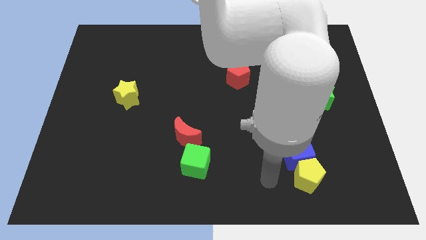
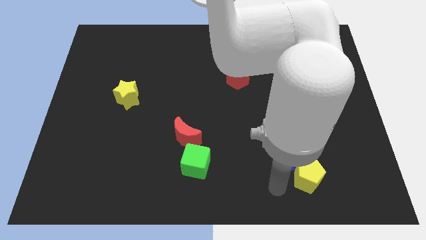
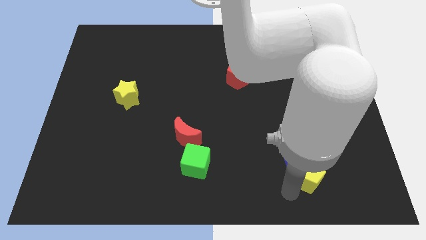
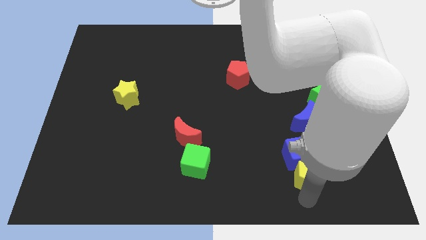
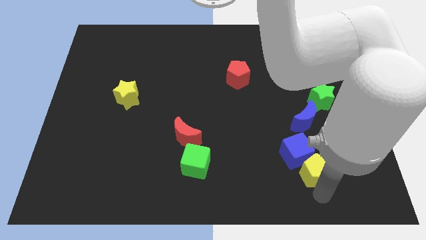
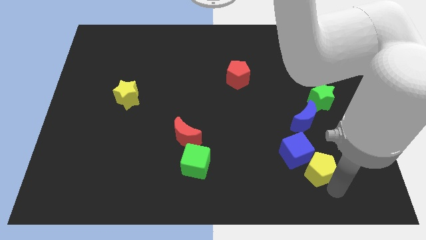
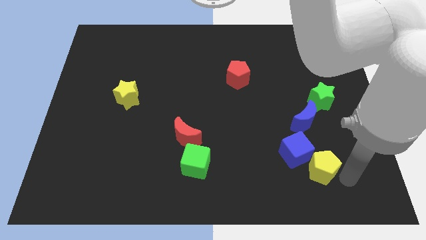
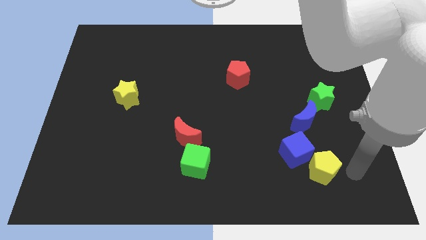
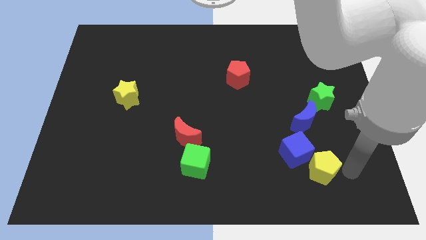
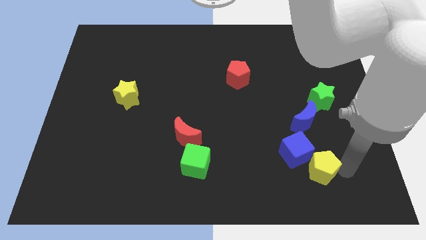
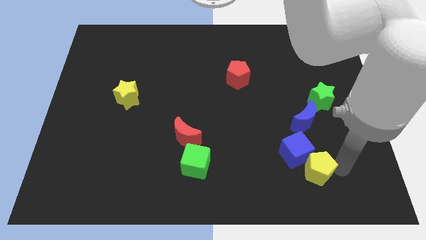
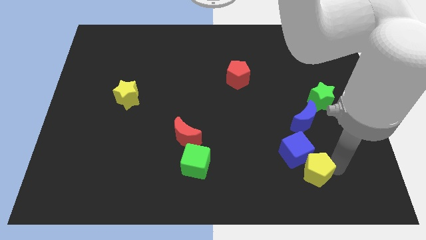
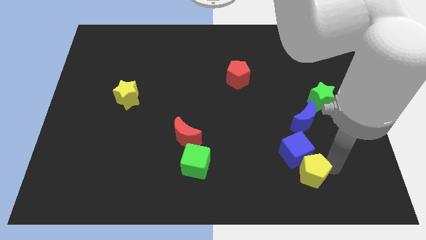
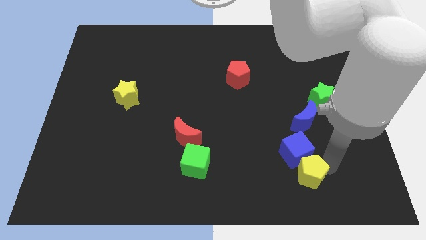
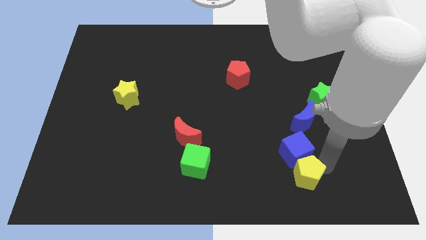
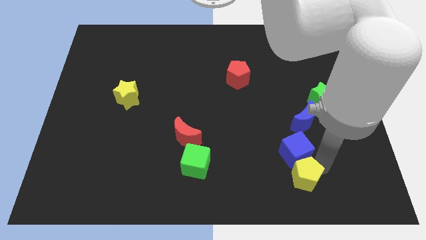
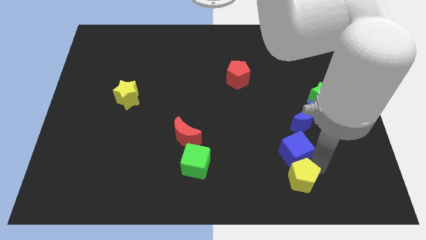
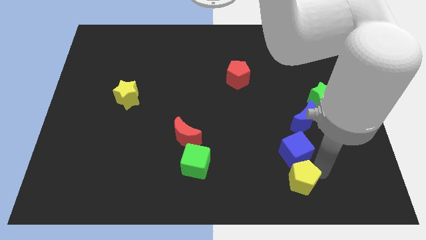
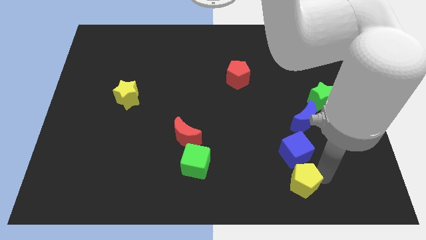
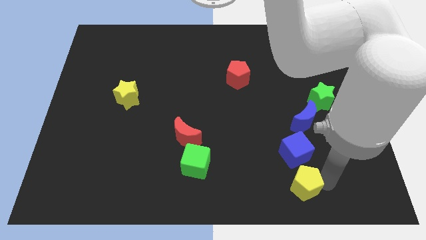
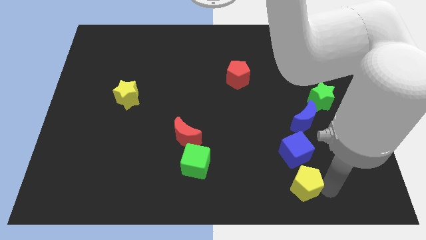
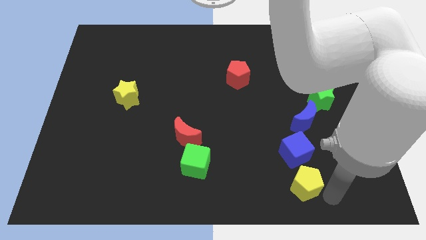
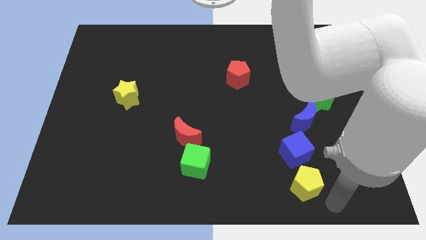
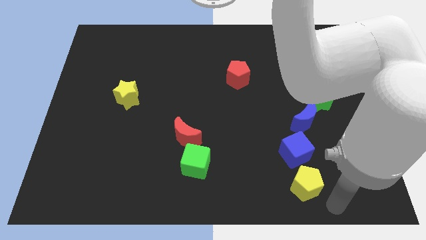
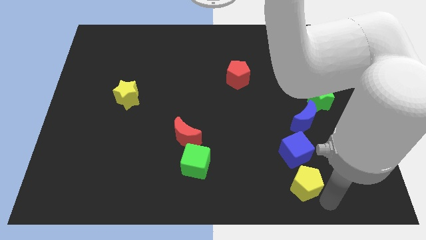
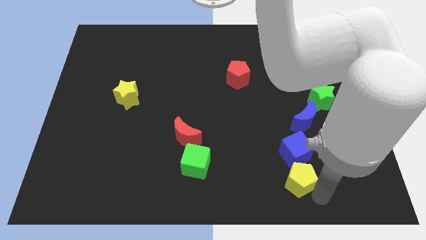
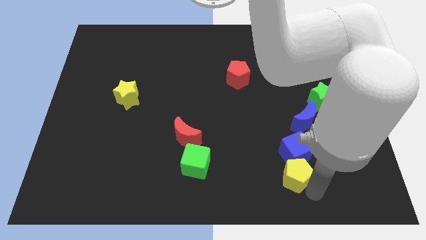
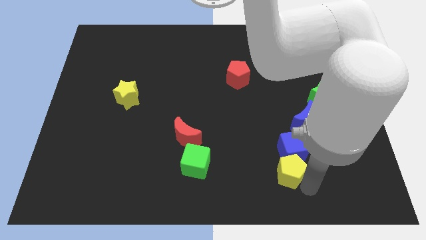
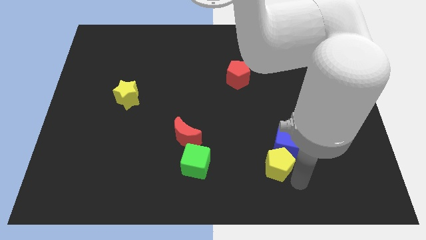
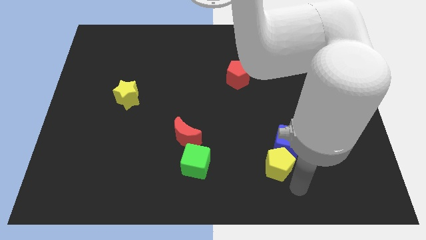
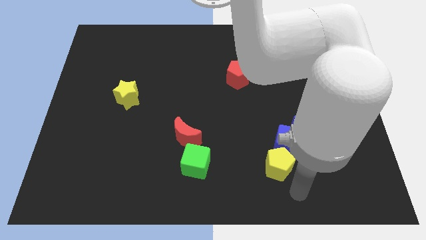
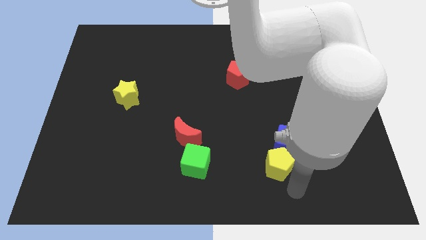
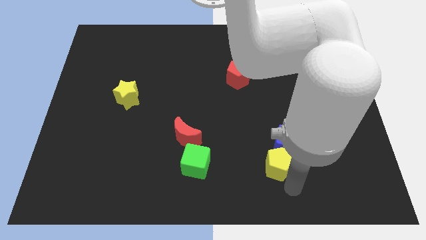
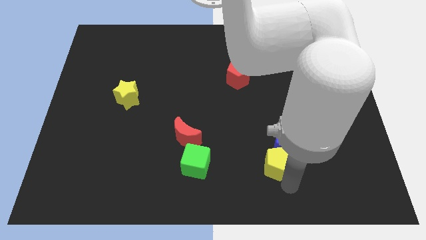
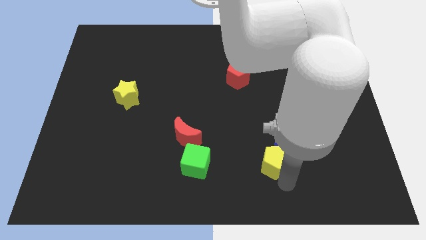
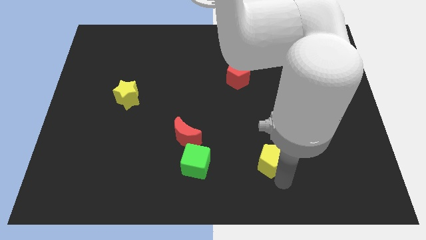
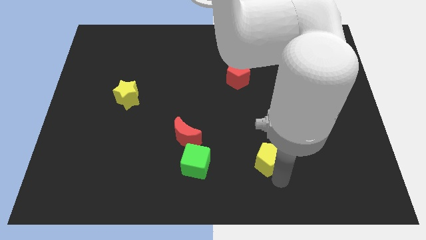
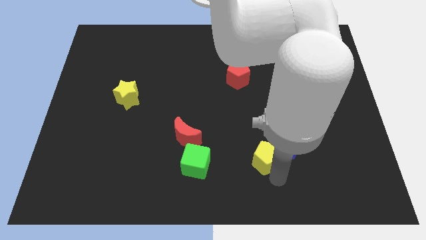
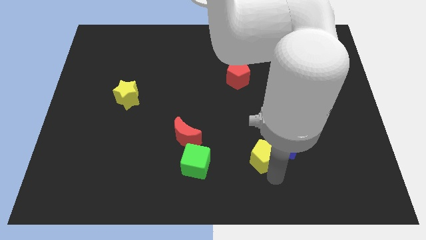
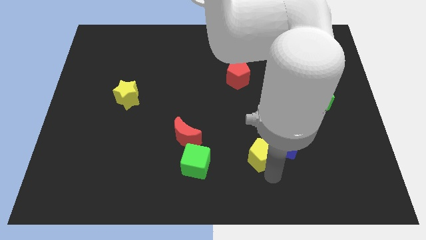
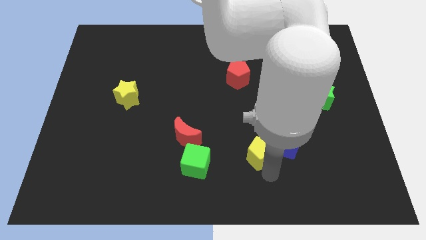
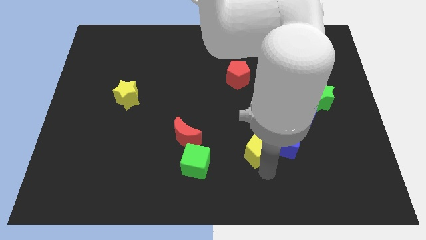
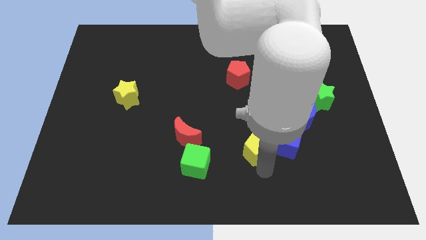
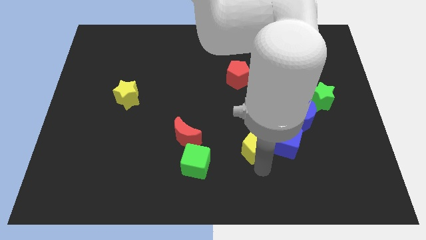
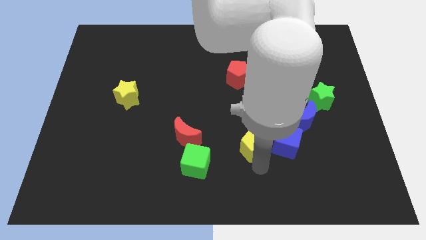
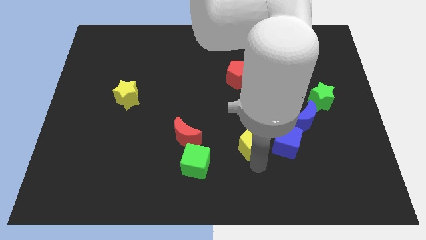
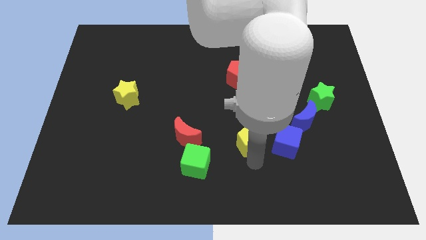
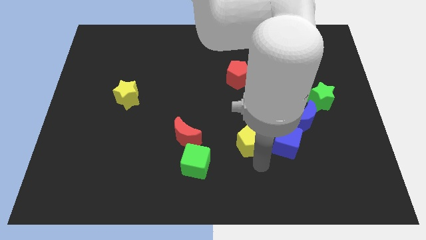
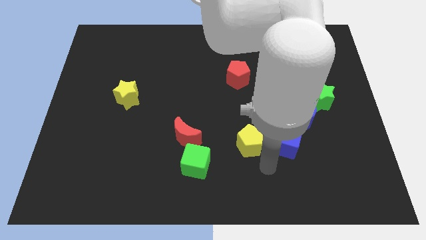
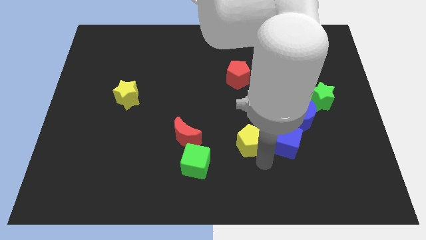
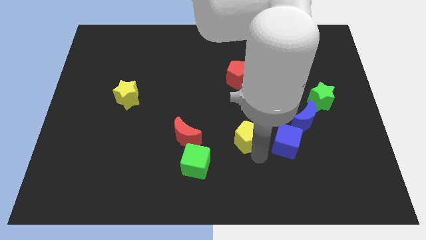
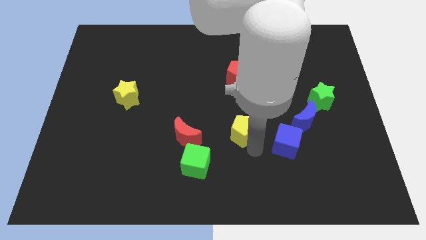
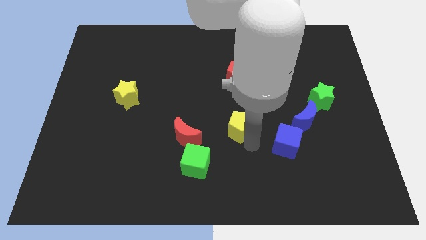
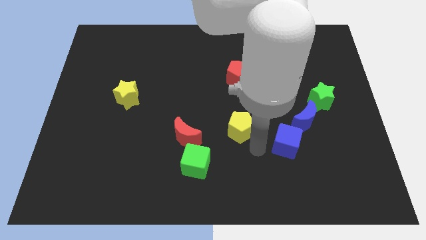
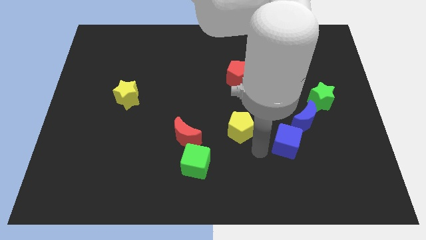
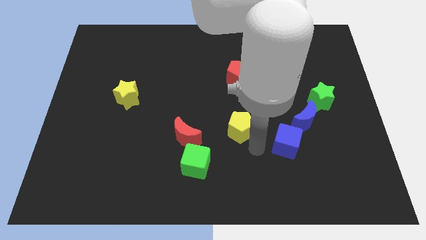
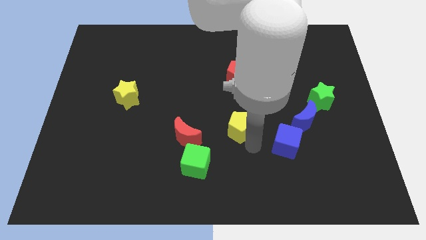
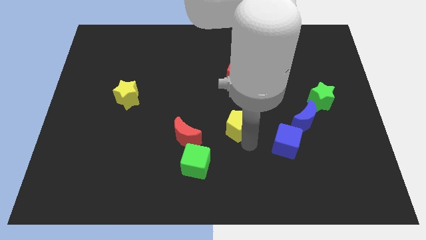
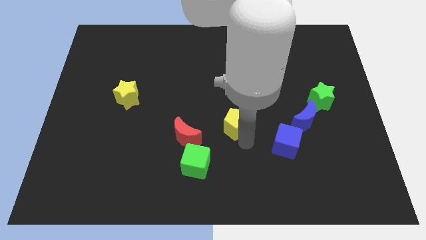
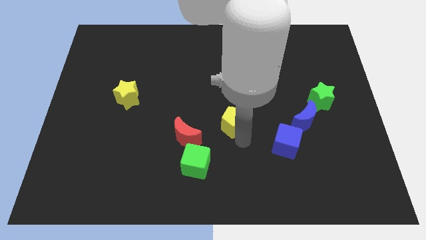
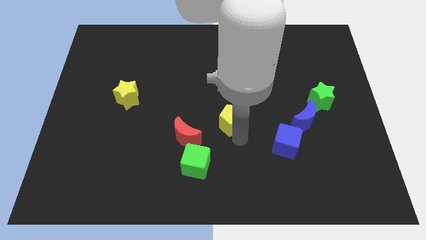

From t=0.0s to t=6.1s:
push the yellow pentagon up and left

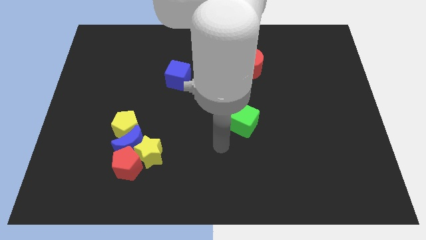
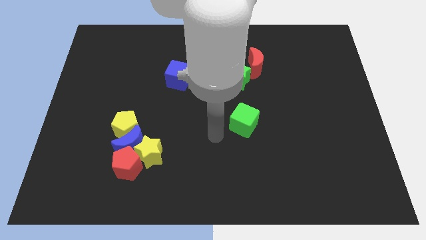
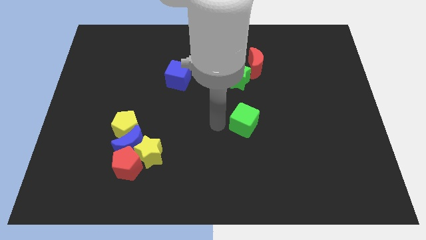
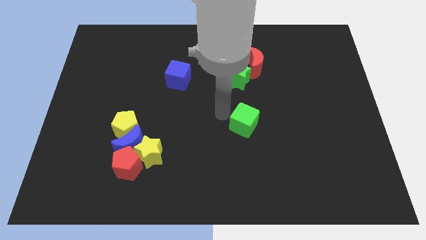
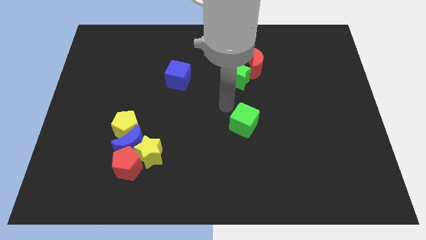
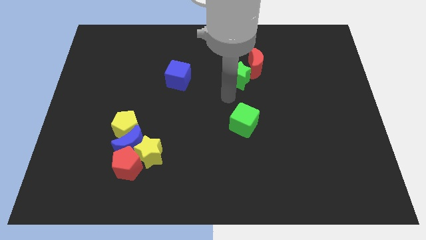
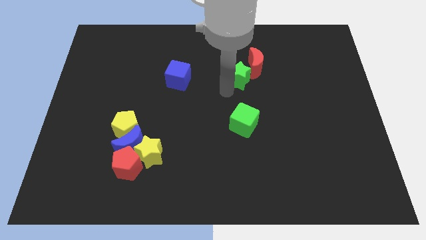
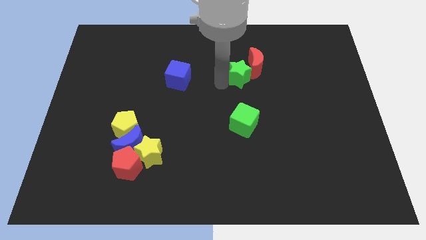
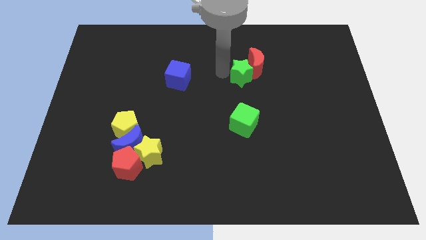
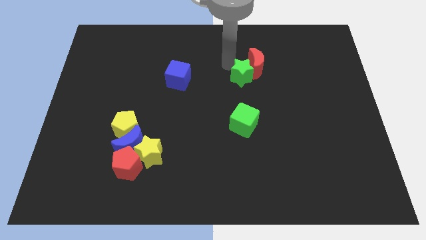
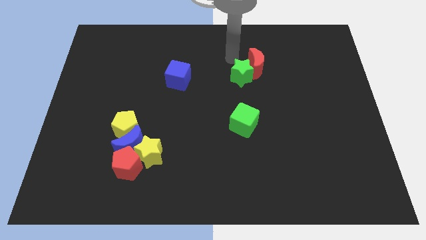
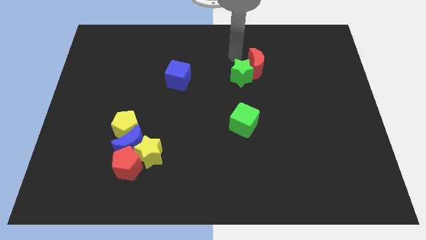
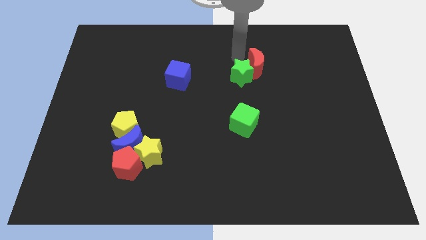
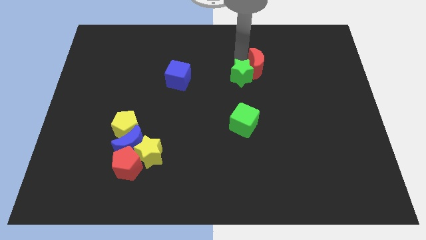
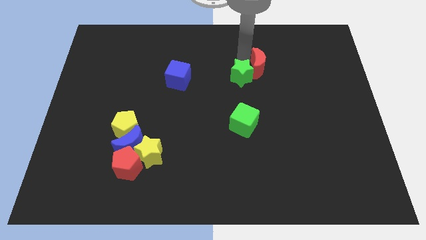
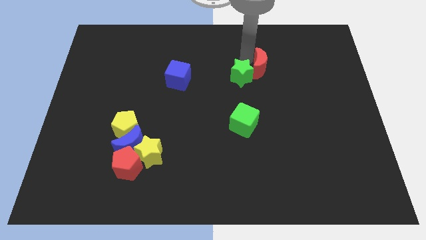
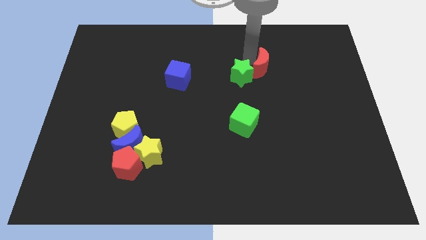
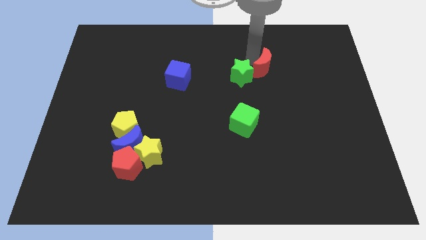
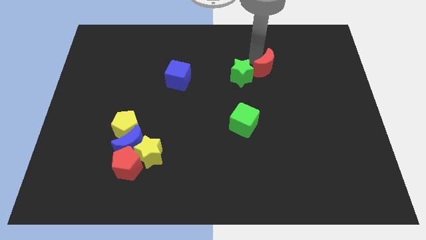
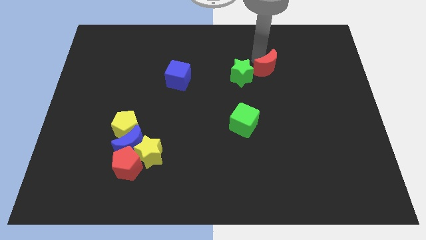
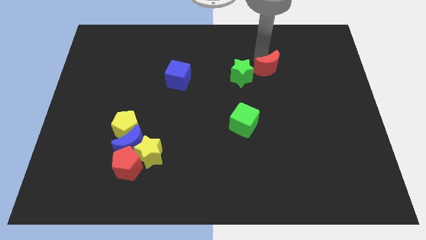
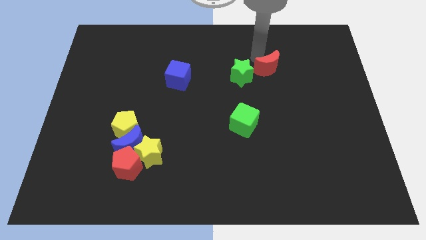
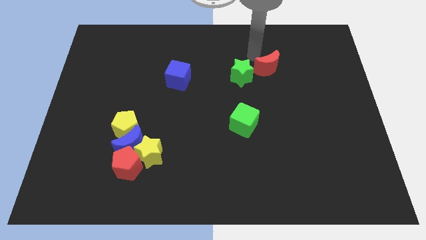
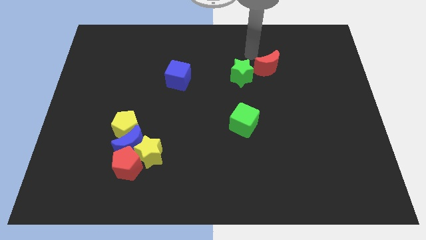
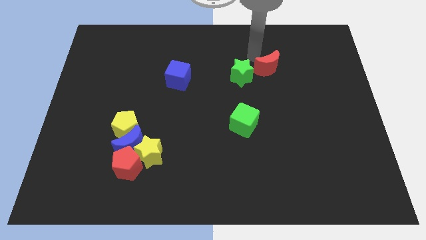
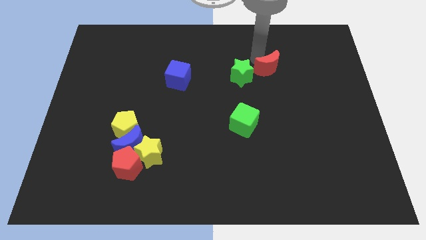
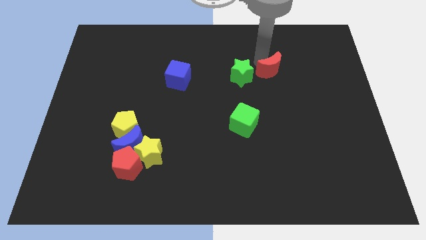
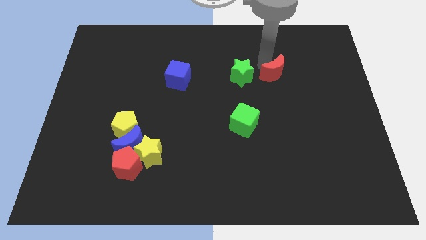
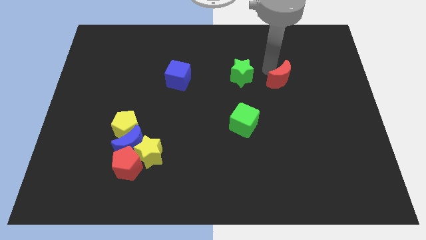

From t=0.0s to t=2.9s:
push the red moon a little down and right
